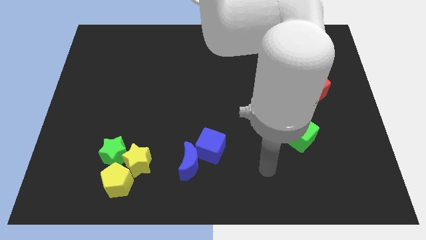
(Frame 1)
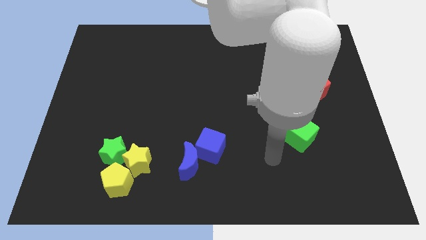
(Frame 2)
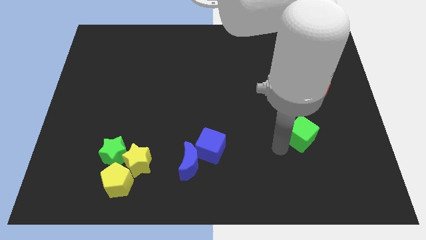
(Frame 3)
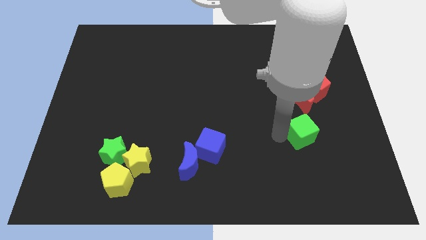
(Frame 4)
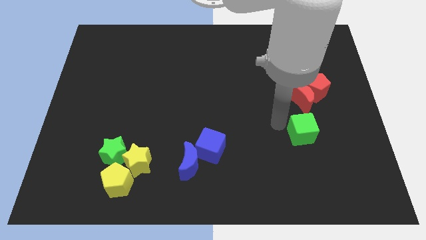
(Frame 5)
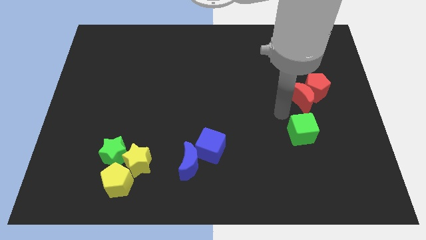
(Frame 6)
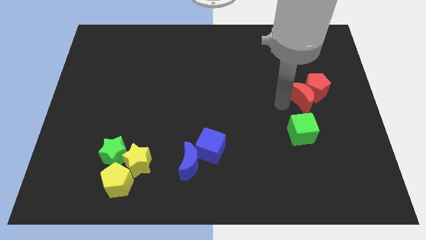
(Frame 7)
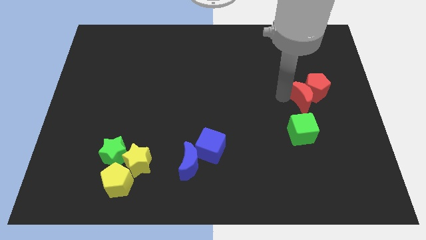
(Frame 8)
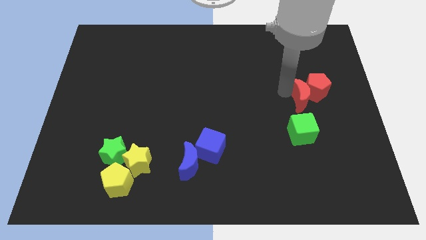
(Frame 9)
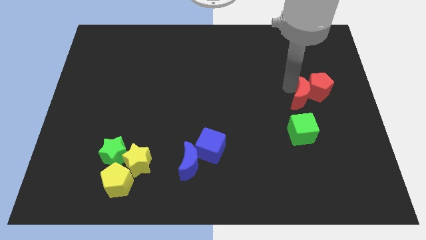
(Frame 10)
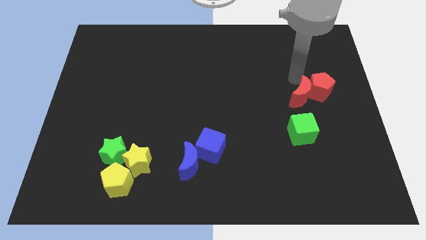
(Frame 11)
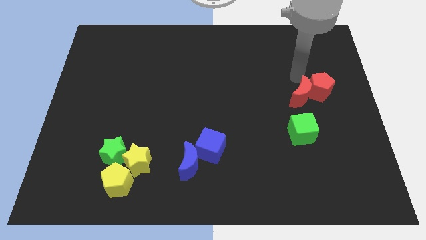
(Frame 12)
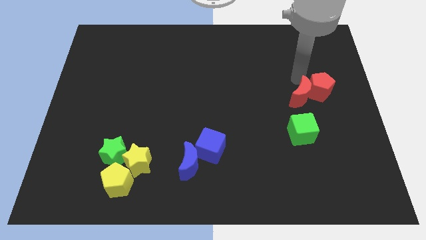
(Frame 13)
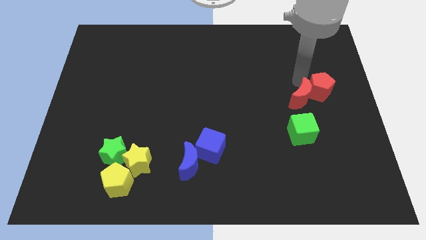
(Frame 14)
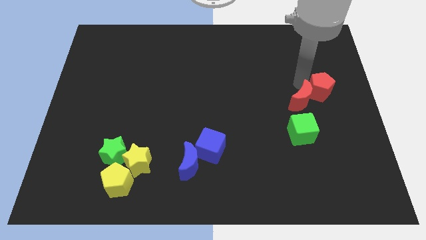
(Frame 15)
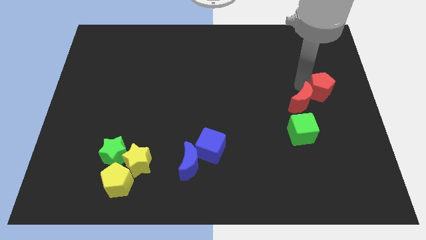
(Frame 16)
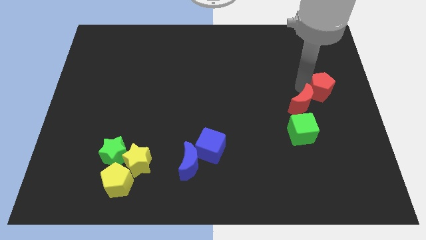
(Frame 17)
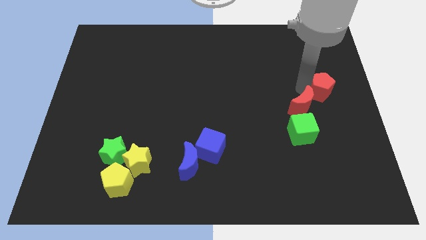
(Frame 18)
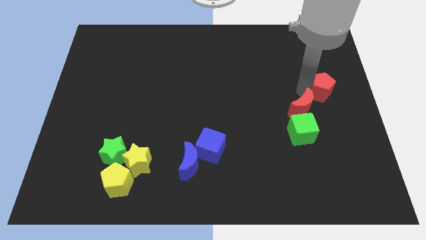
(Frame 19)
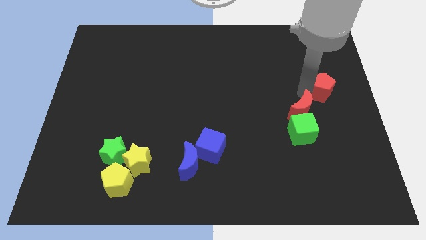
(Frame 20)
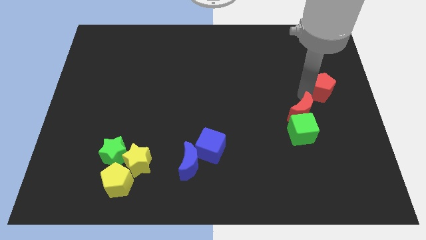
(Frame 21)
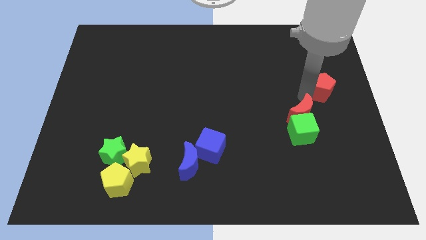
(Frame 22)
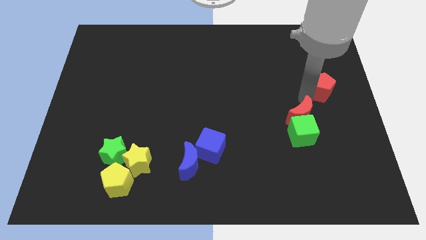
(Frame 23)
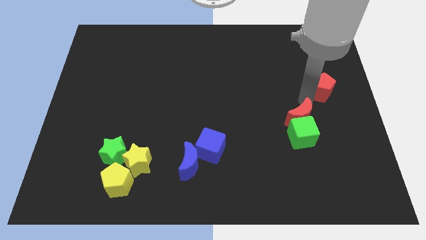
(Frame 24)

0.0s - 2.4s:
pull the red moon apart from the red pentagon

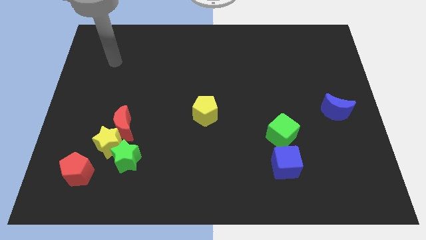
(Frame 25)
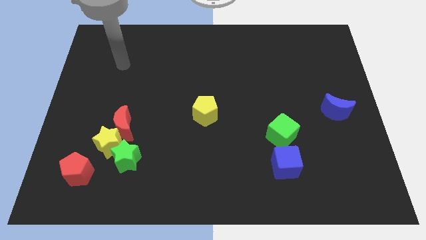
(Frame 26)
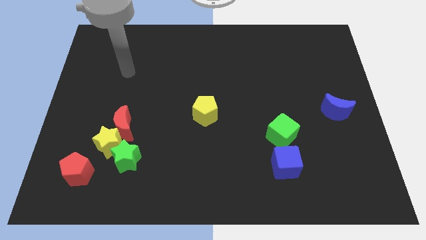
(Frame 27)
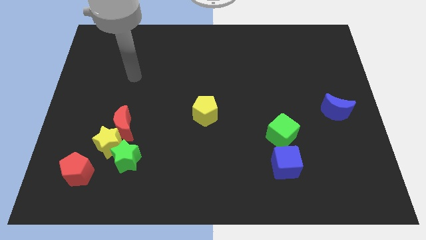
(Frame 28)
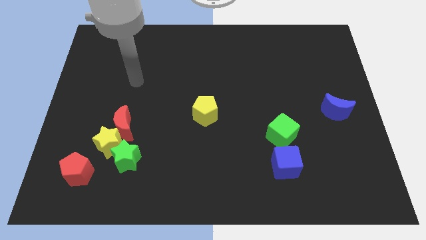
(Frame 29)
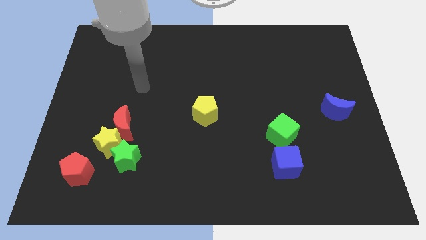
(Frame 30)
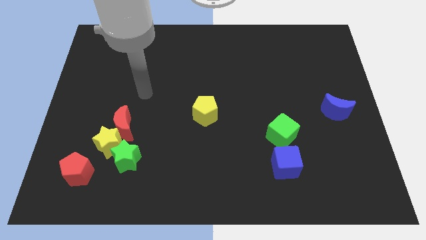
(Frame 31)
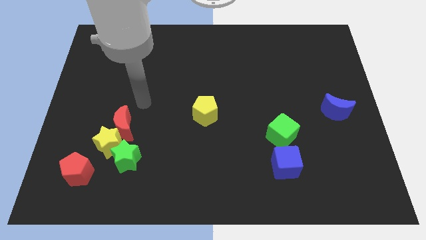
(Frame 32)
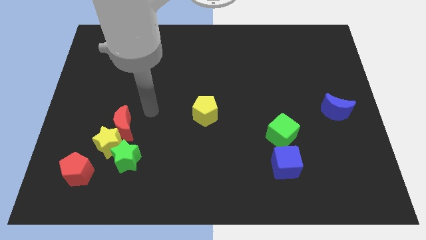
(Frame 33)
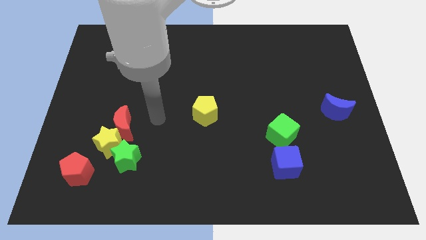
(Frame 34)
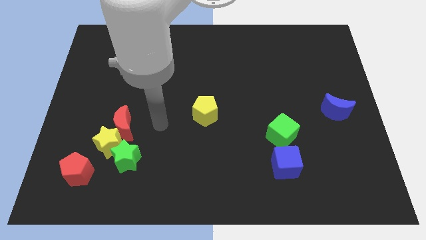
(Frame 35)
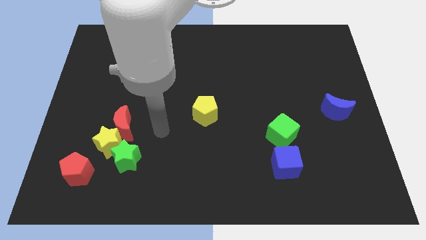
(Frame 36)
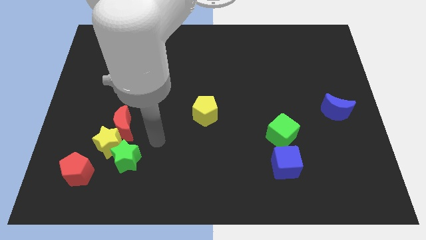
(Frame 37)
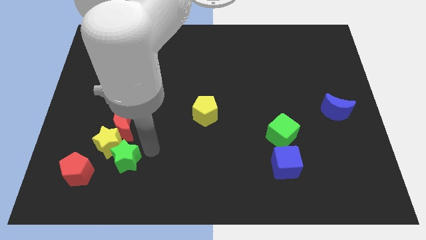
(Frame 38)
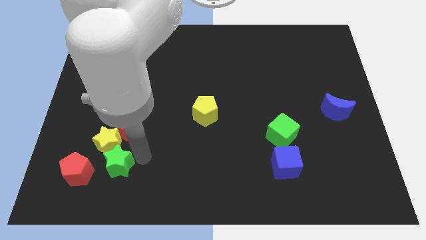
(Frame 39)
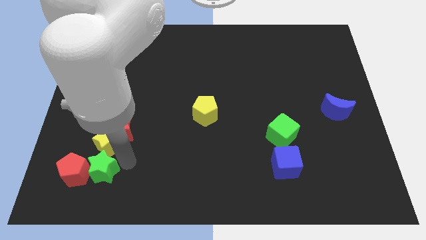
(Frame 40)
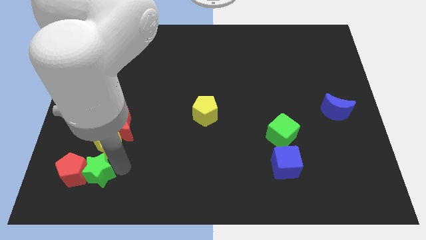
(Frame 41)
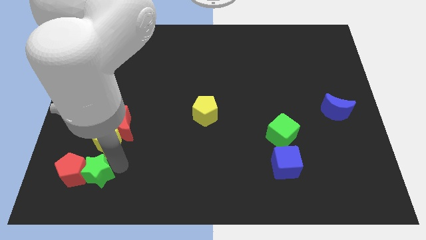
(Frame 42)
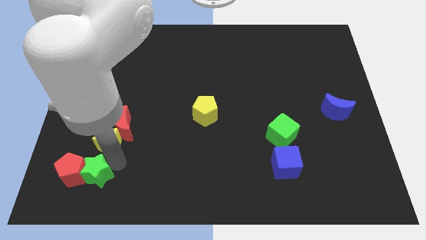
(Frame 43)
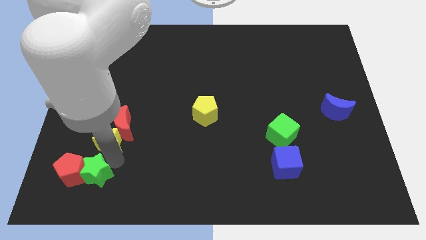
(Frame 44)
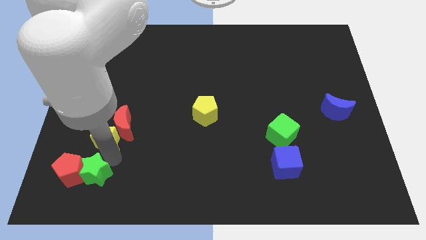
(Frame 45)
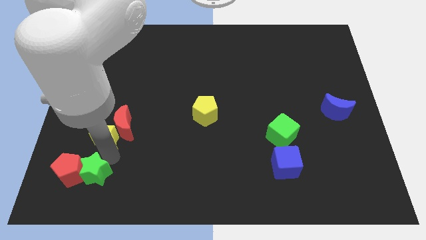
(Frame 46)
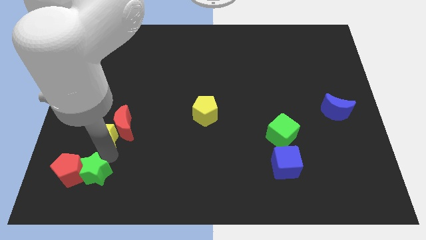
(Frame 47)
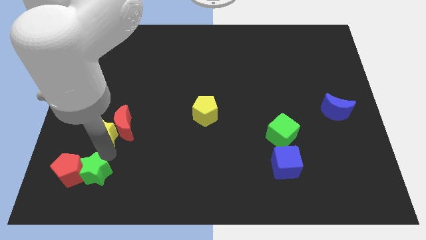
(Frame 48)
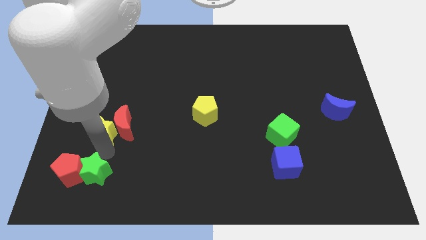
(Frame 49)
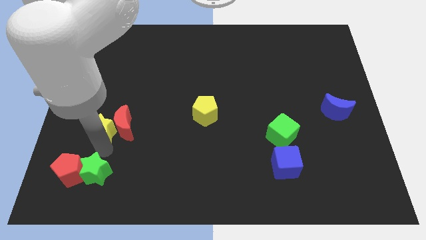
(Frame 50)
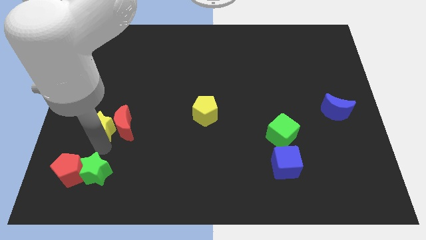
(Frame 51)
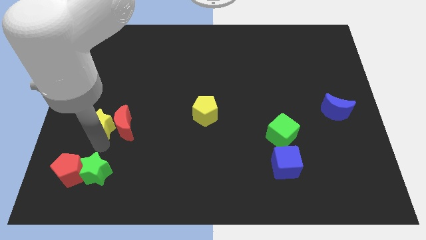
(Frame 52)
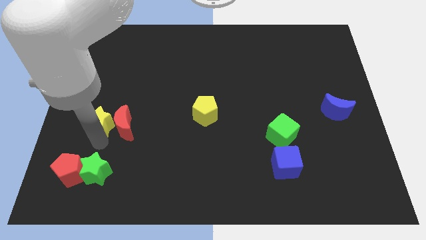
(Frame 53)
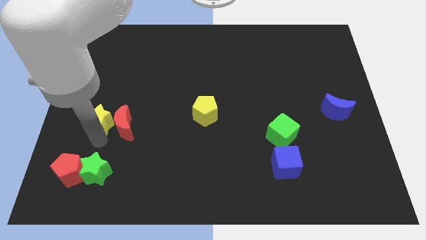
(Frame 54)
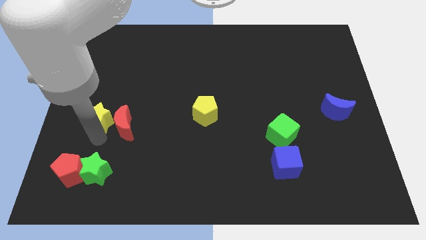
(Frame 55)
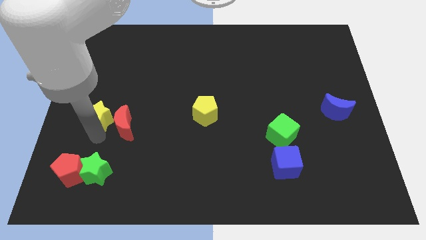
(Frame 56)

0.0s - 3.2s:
separate the yellow star from the red moon, green star, and red pentagon

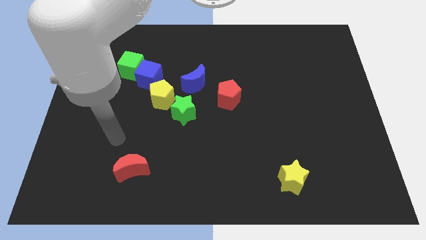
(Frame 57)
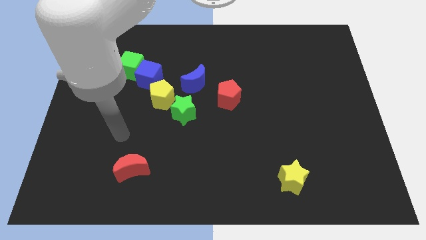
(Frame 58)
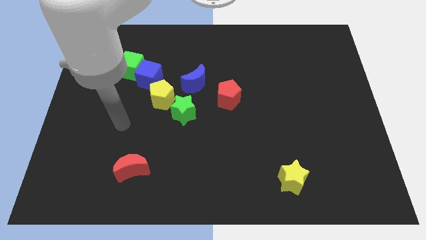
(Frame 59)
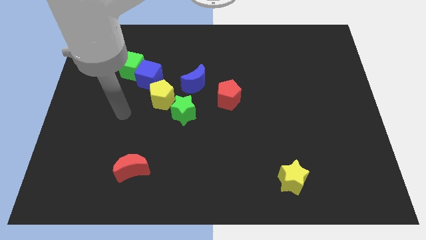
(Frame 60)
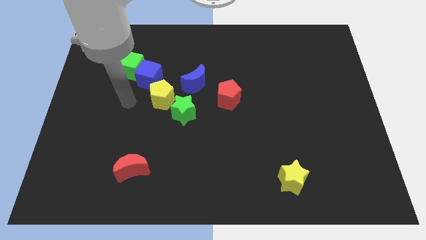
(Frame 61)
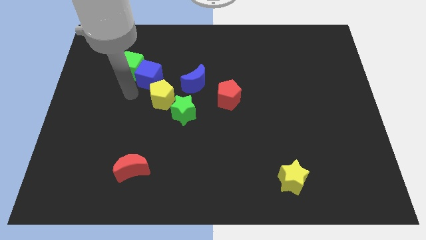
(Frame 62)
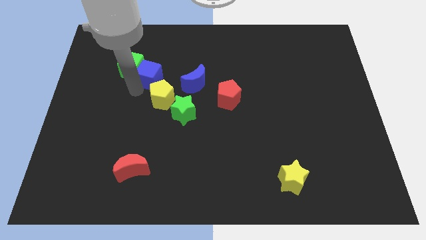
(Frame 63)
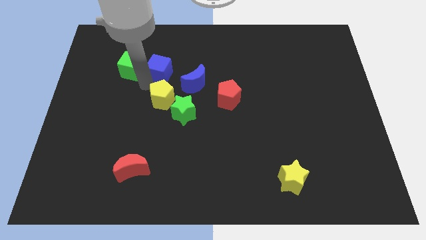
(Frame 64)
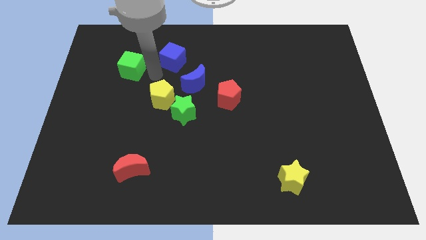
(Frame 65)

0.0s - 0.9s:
separate the green cube from the blue cube

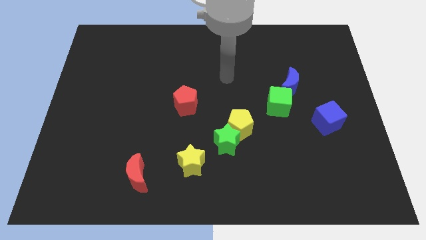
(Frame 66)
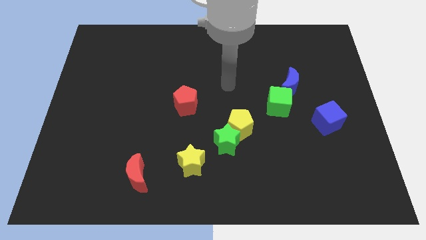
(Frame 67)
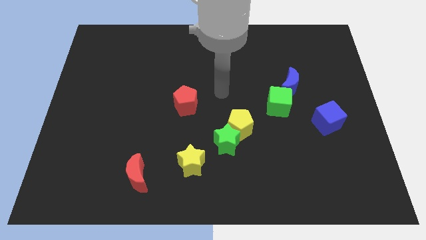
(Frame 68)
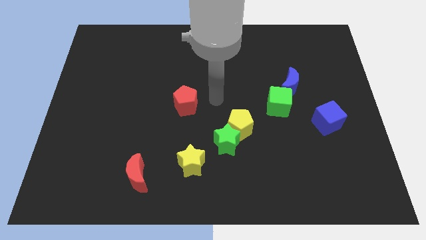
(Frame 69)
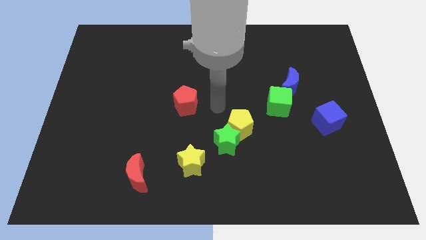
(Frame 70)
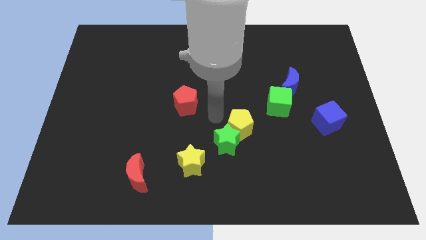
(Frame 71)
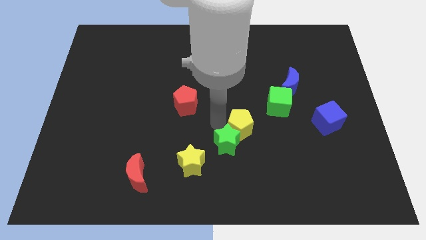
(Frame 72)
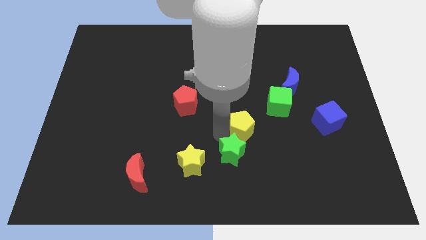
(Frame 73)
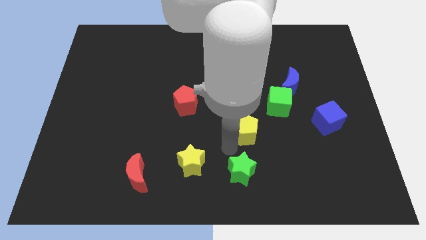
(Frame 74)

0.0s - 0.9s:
move the yellow pentagon away from the green star

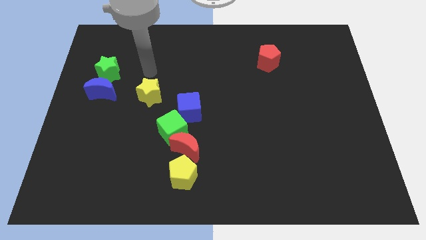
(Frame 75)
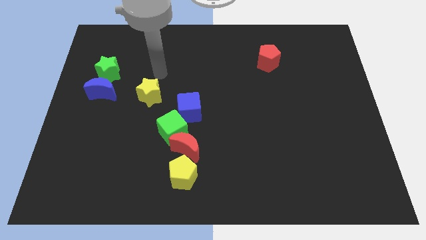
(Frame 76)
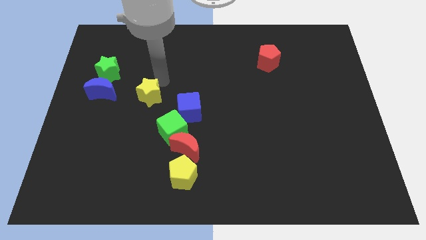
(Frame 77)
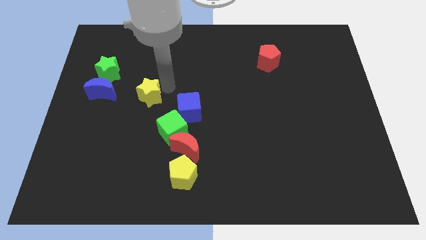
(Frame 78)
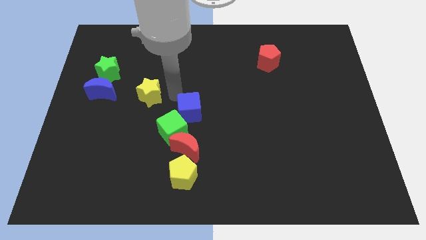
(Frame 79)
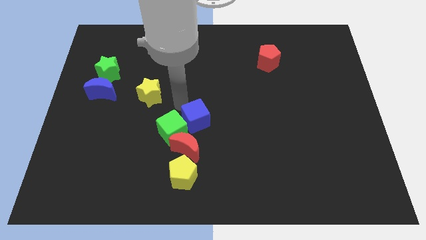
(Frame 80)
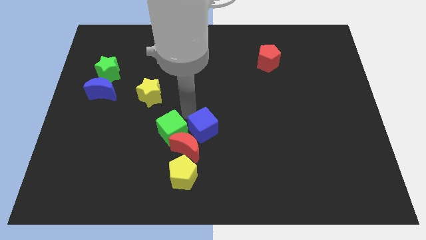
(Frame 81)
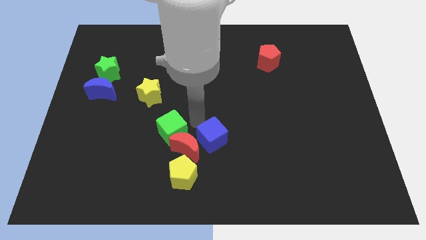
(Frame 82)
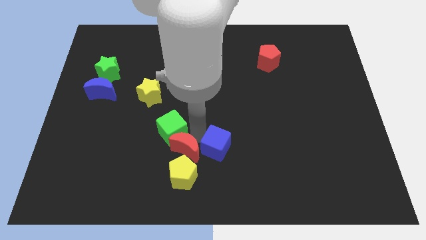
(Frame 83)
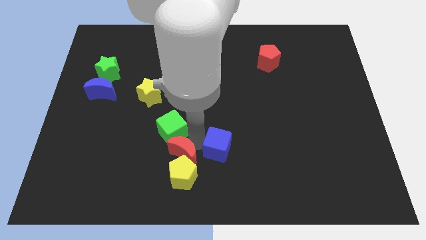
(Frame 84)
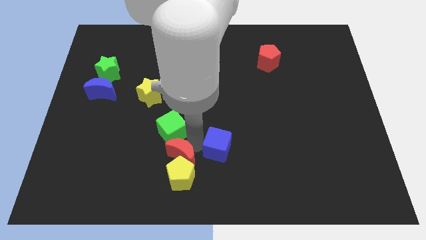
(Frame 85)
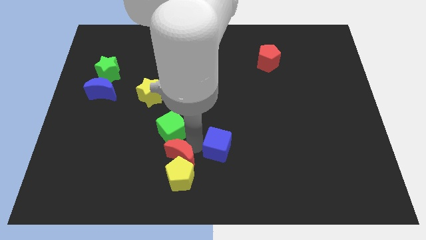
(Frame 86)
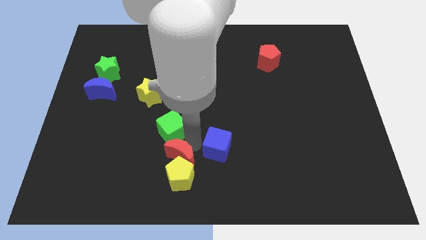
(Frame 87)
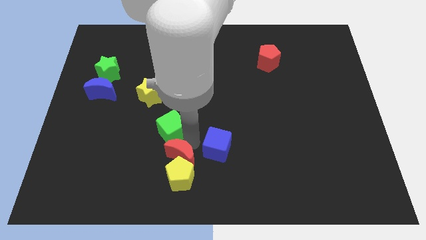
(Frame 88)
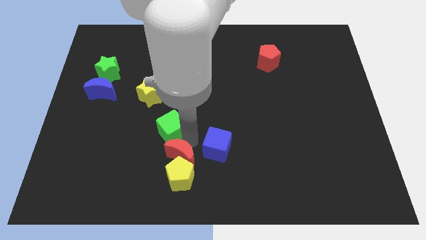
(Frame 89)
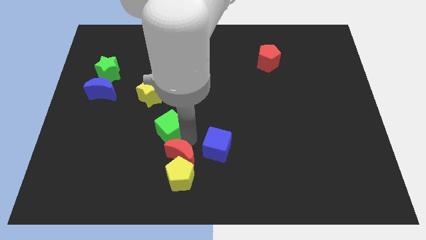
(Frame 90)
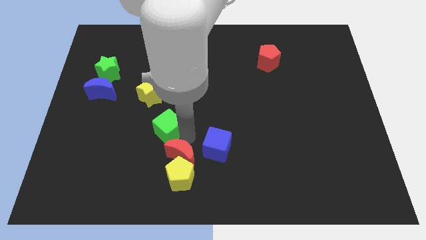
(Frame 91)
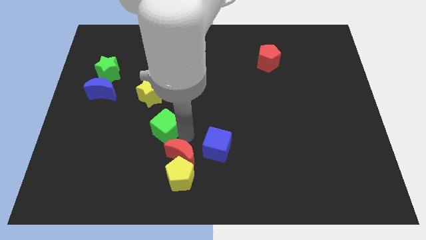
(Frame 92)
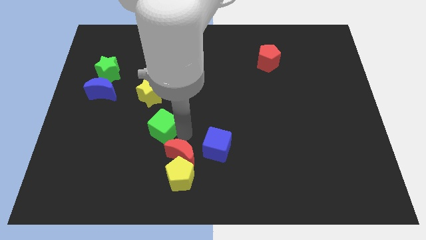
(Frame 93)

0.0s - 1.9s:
pull the green cube apart from the red moon and blue cube
